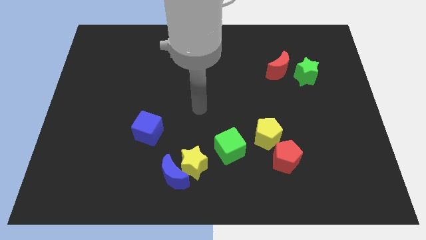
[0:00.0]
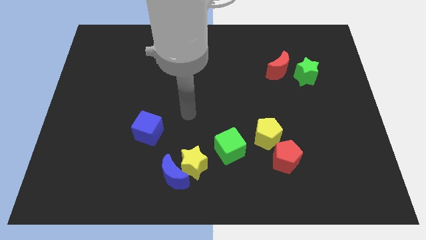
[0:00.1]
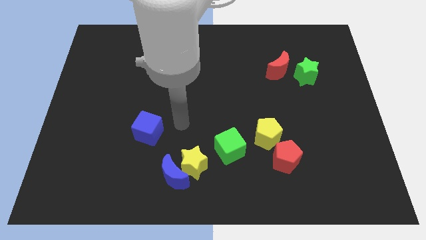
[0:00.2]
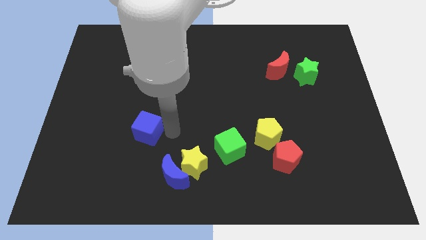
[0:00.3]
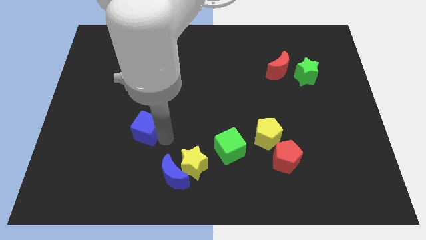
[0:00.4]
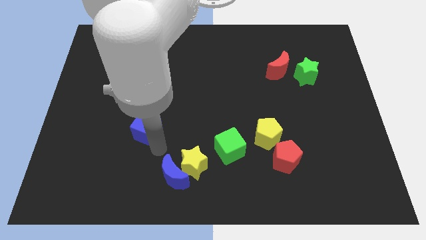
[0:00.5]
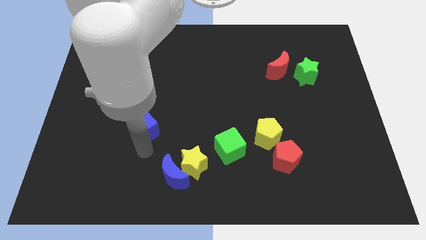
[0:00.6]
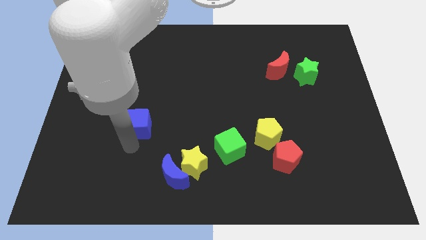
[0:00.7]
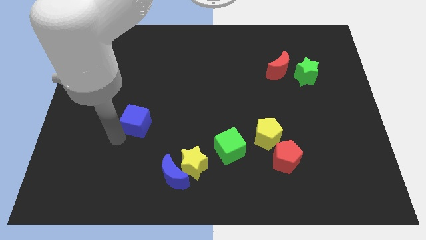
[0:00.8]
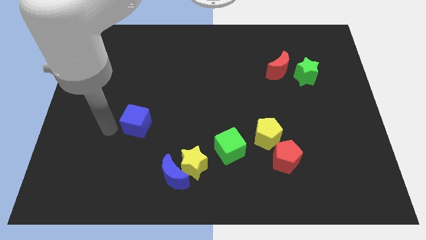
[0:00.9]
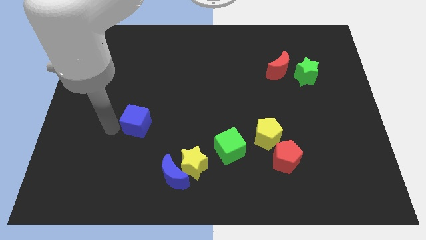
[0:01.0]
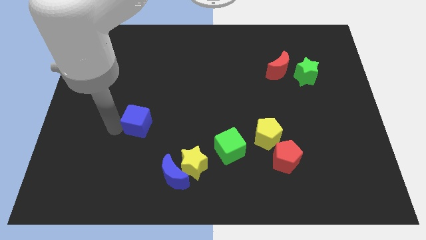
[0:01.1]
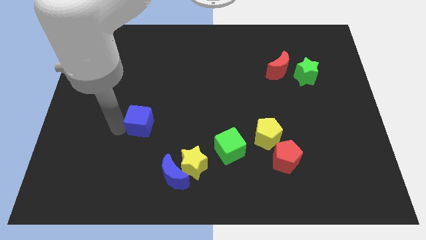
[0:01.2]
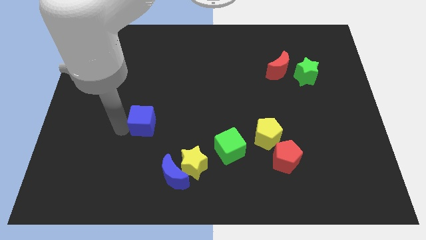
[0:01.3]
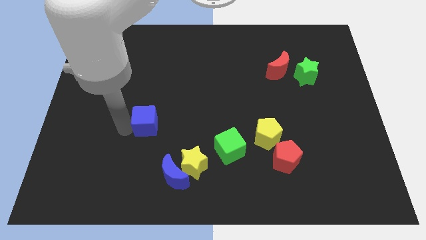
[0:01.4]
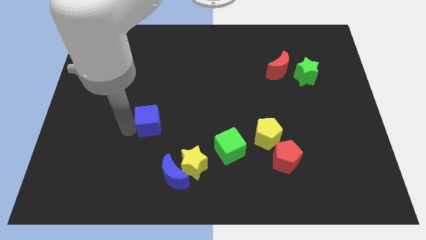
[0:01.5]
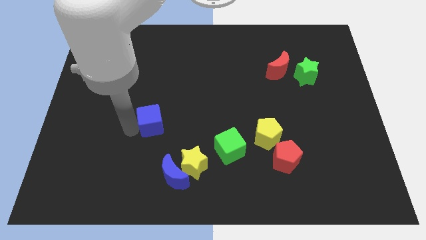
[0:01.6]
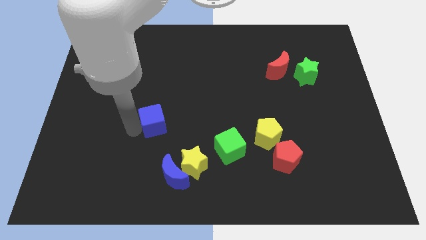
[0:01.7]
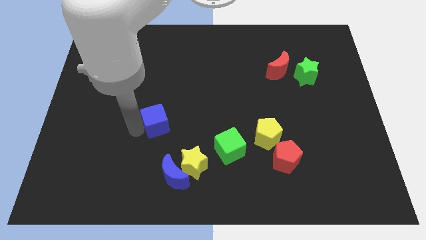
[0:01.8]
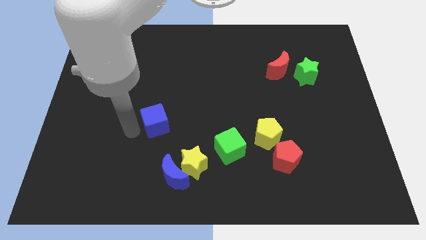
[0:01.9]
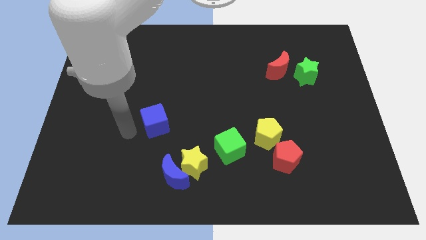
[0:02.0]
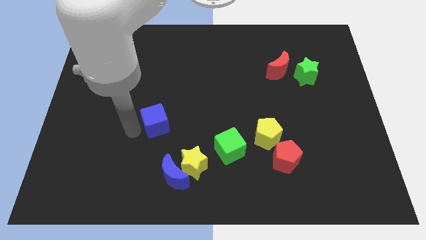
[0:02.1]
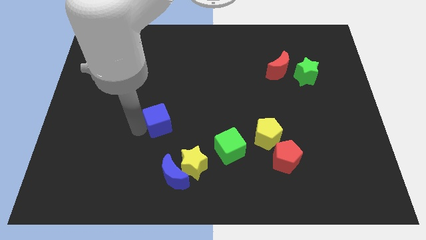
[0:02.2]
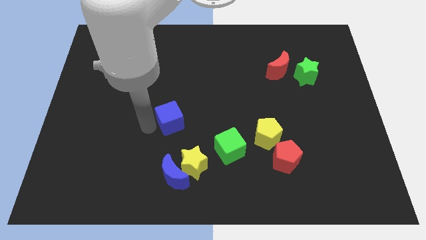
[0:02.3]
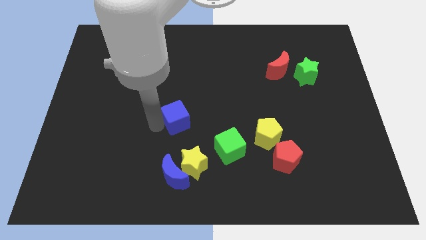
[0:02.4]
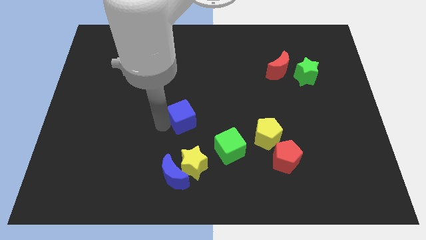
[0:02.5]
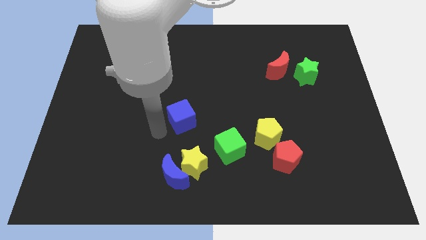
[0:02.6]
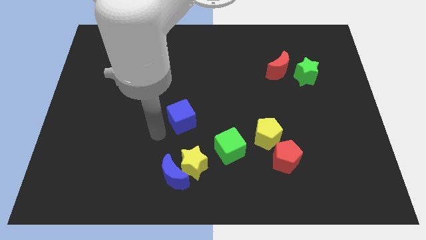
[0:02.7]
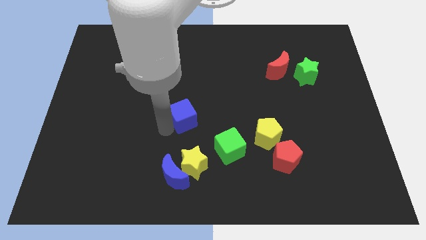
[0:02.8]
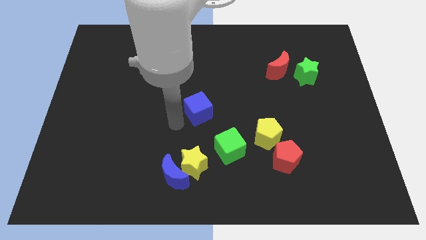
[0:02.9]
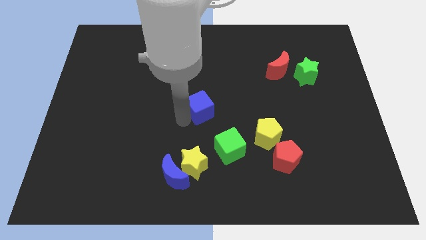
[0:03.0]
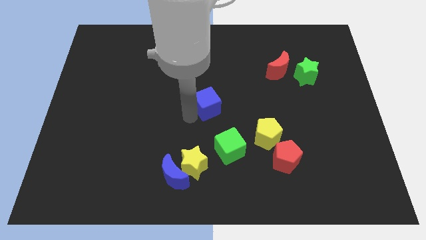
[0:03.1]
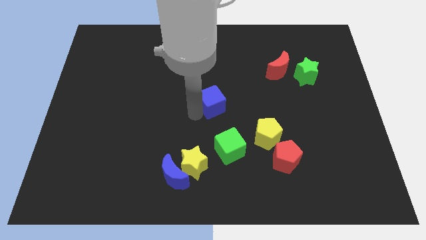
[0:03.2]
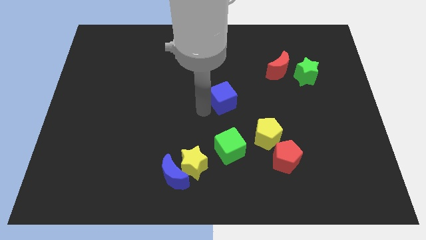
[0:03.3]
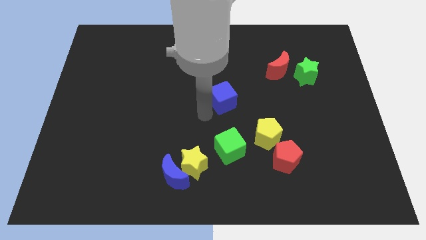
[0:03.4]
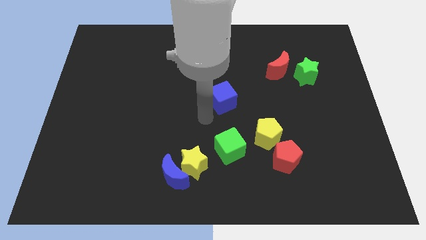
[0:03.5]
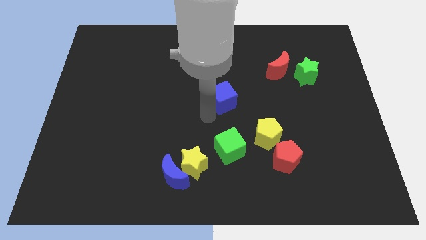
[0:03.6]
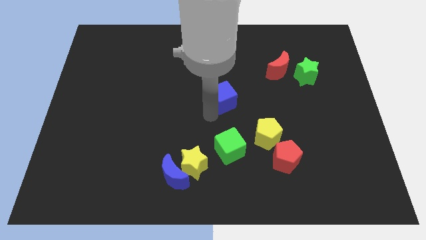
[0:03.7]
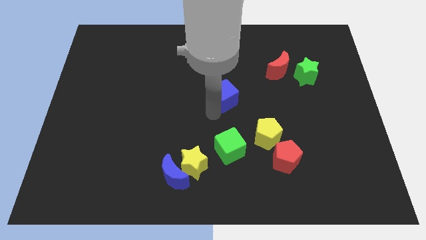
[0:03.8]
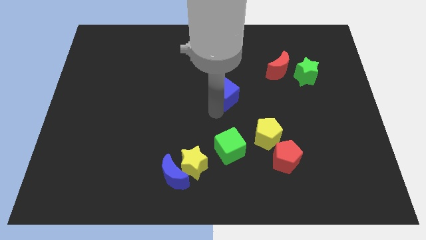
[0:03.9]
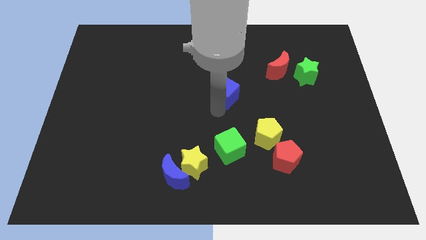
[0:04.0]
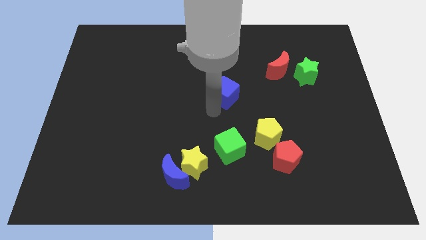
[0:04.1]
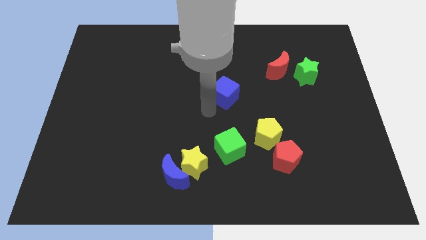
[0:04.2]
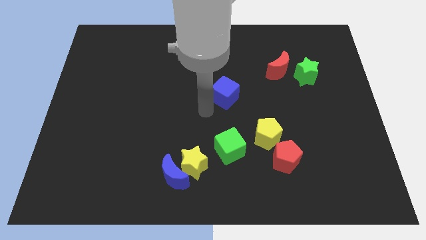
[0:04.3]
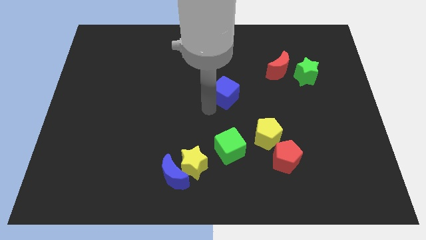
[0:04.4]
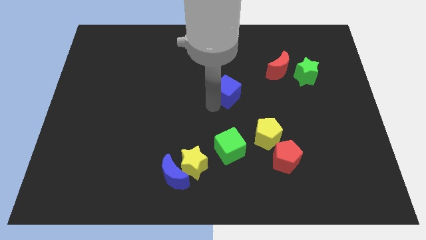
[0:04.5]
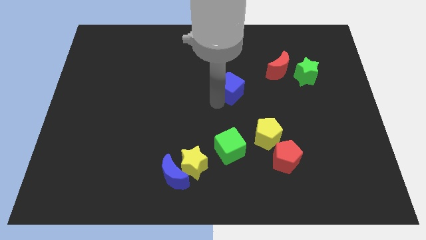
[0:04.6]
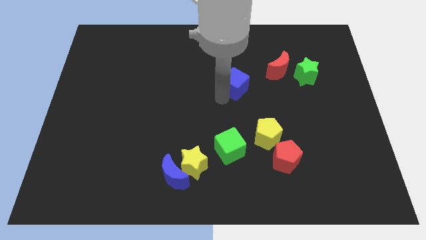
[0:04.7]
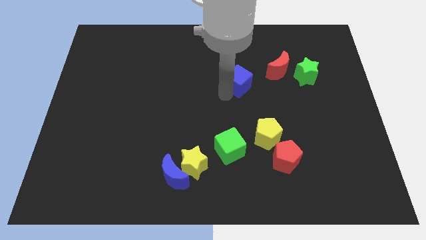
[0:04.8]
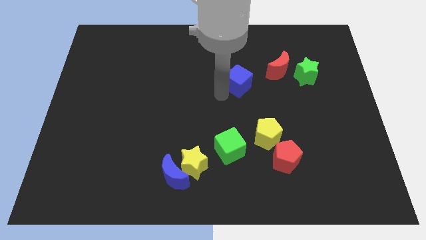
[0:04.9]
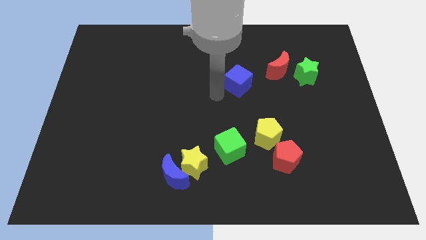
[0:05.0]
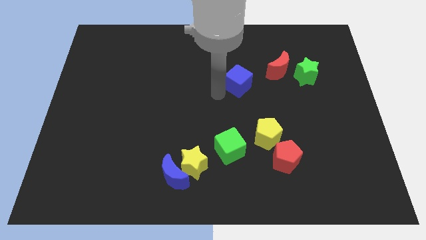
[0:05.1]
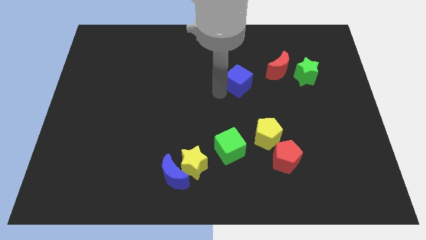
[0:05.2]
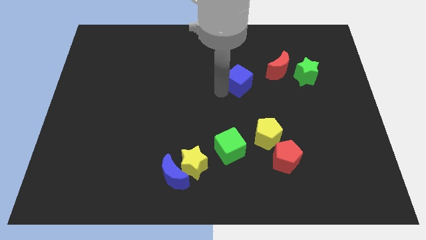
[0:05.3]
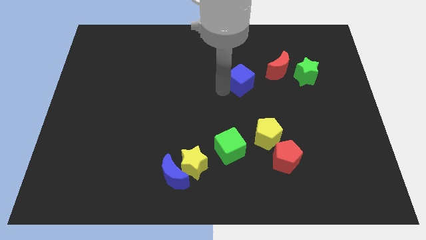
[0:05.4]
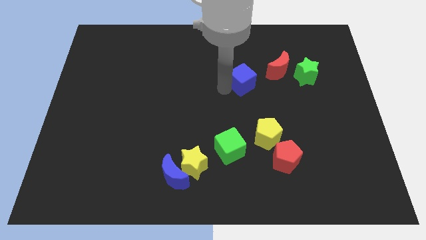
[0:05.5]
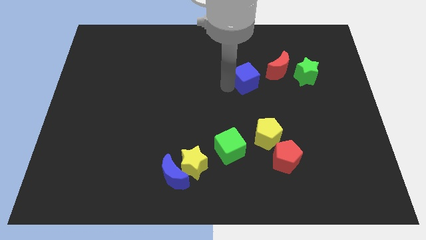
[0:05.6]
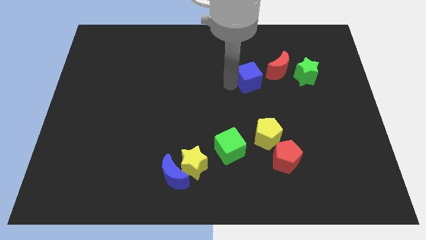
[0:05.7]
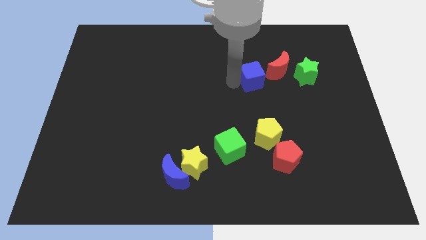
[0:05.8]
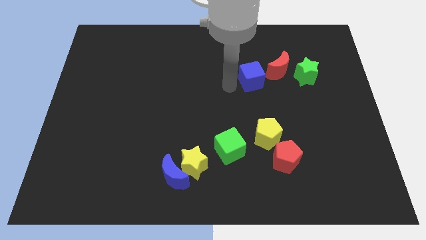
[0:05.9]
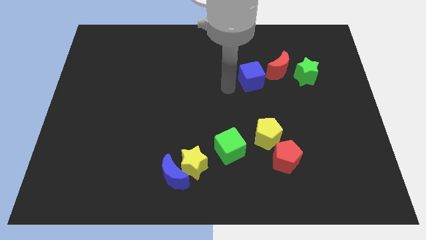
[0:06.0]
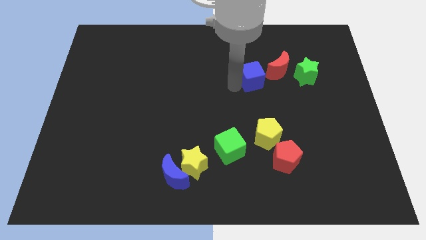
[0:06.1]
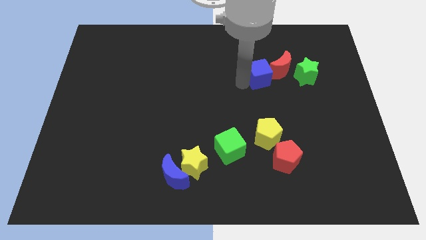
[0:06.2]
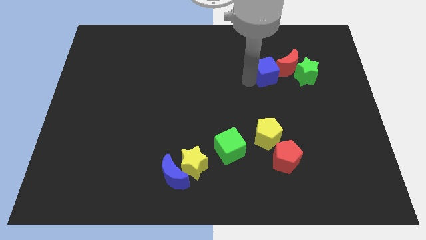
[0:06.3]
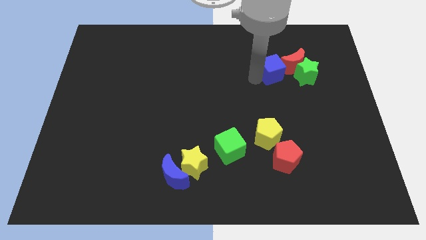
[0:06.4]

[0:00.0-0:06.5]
put the blue cube towards the red moon

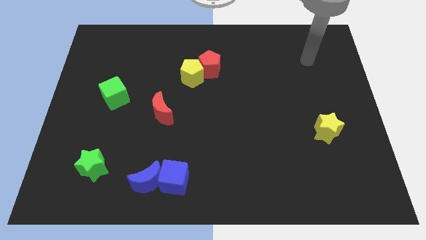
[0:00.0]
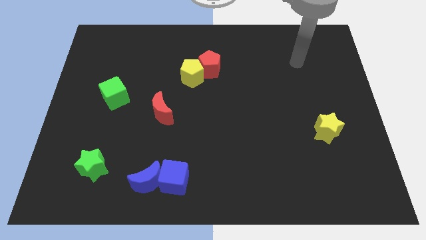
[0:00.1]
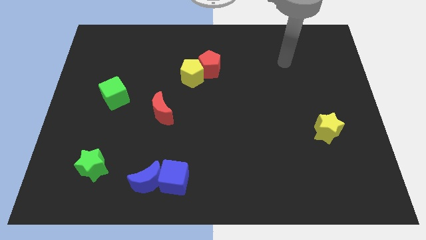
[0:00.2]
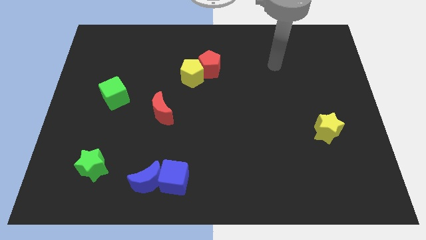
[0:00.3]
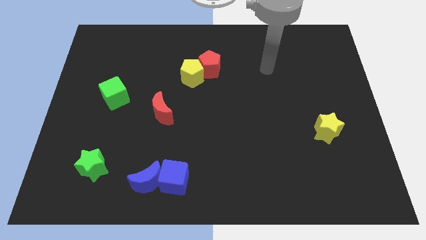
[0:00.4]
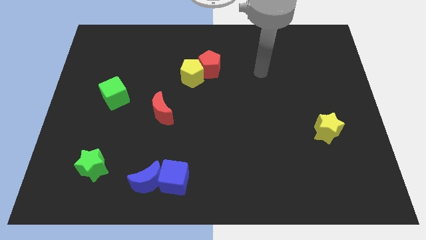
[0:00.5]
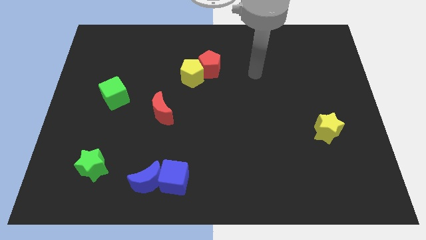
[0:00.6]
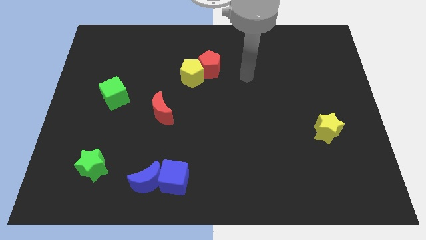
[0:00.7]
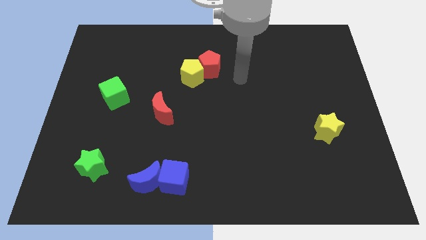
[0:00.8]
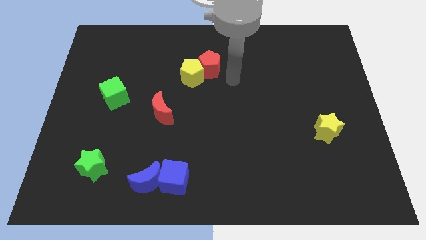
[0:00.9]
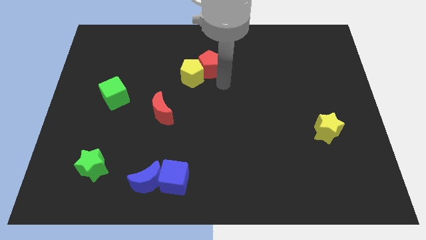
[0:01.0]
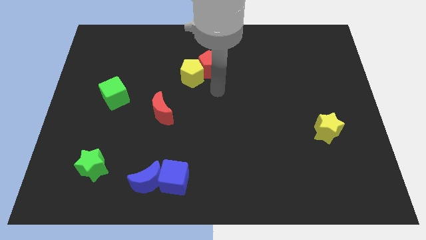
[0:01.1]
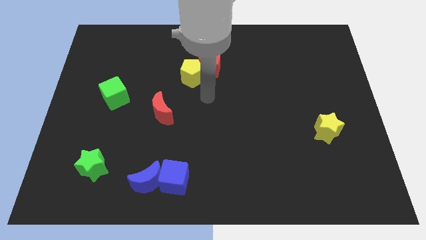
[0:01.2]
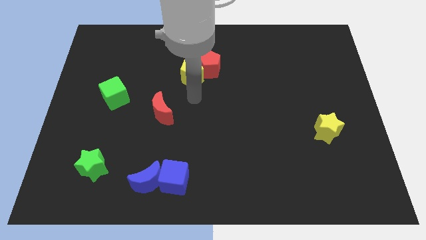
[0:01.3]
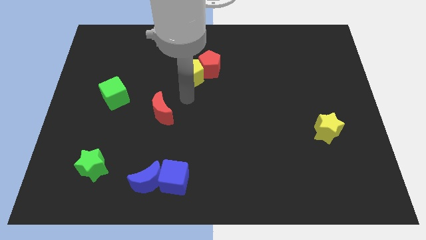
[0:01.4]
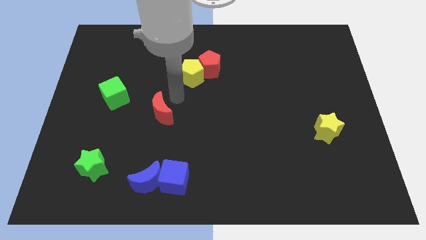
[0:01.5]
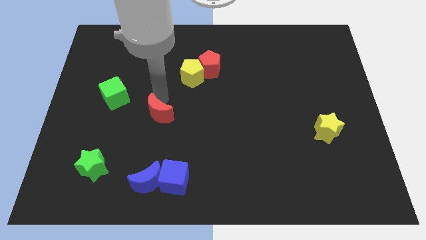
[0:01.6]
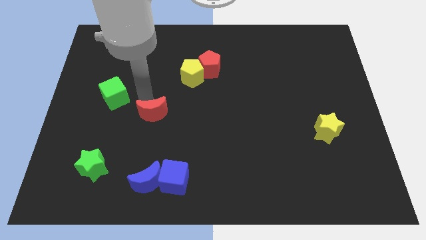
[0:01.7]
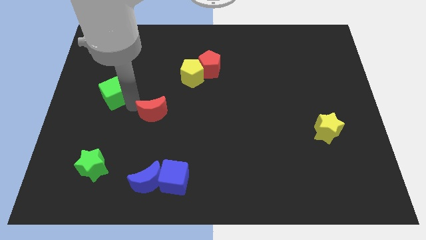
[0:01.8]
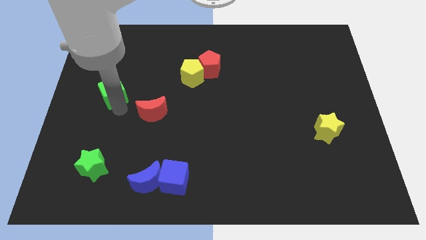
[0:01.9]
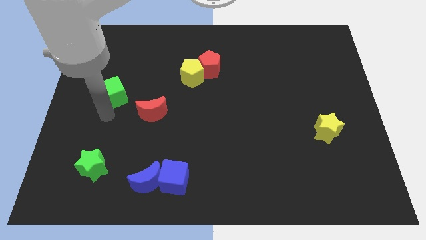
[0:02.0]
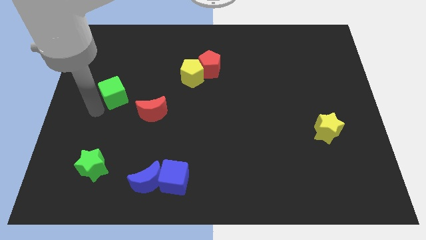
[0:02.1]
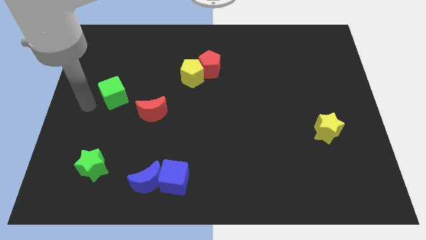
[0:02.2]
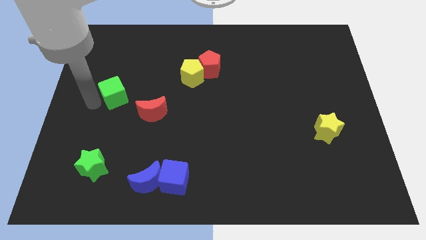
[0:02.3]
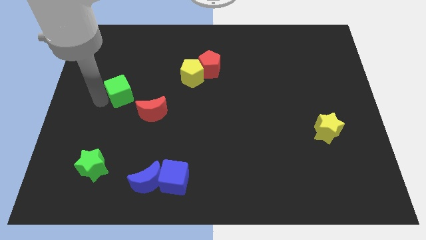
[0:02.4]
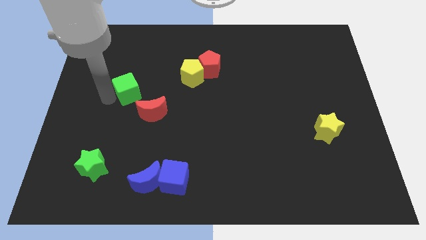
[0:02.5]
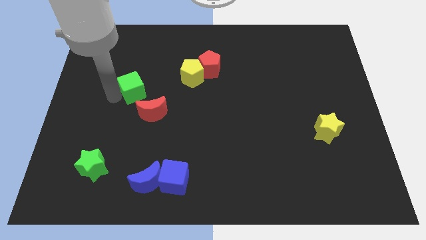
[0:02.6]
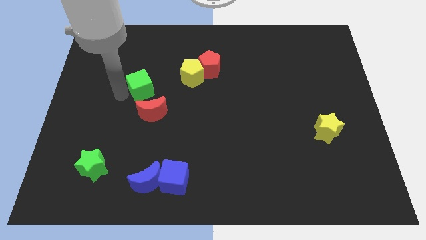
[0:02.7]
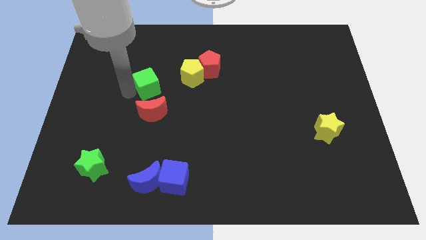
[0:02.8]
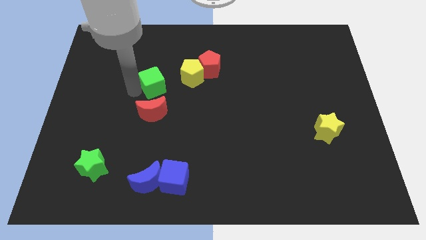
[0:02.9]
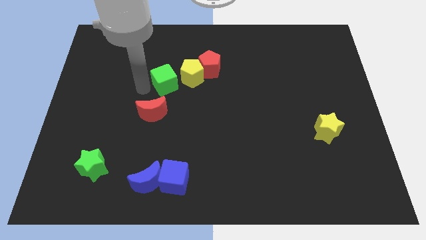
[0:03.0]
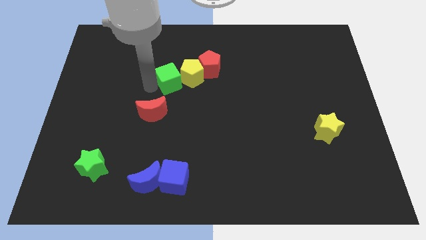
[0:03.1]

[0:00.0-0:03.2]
slide the green cube next to the yellow pentagon
